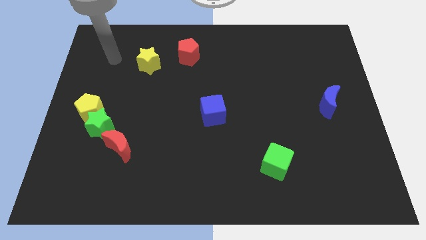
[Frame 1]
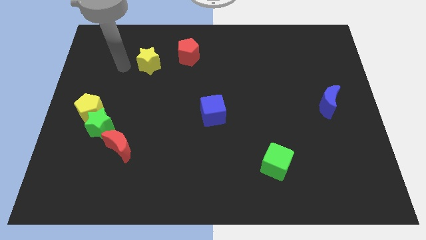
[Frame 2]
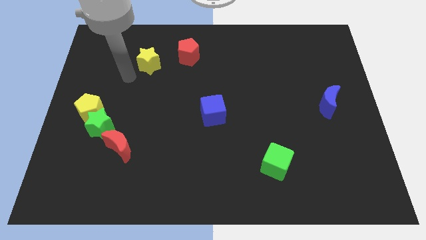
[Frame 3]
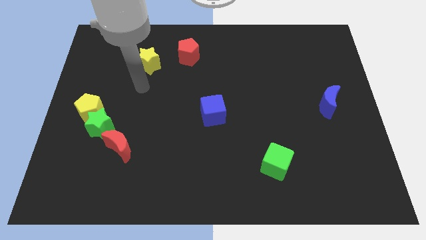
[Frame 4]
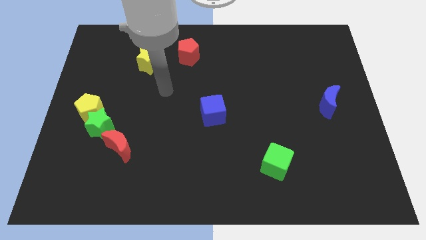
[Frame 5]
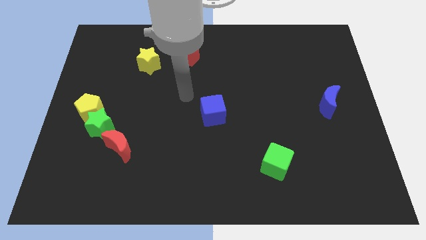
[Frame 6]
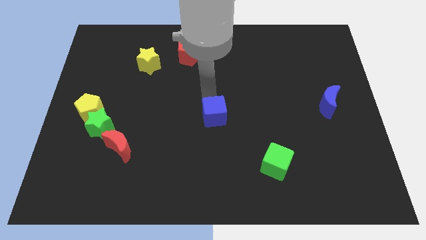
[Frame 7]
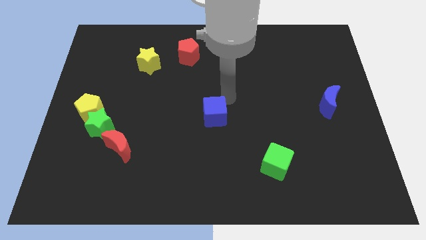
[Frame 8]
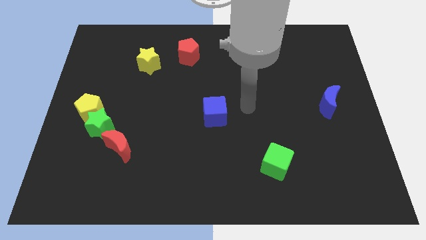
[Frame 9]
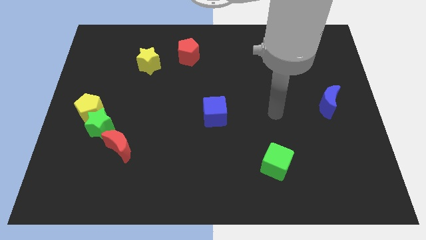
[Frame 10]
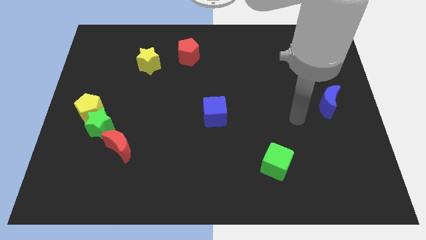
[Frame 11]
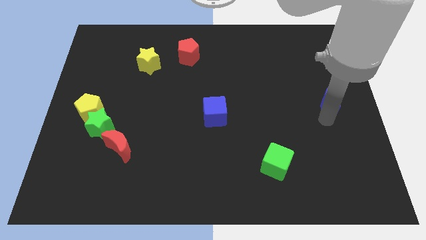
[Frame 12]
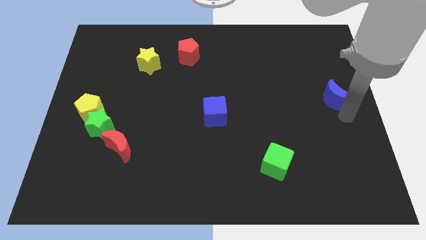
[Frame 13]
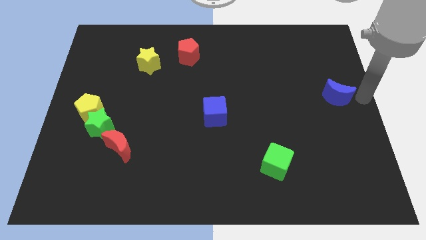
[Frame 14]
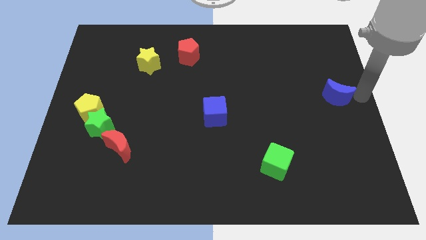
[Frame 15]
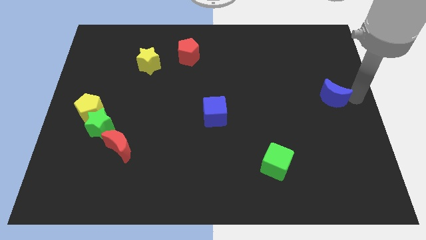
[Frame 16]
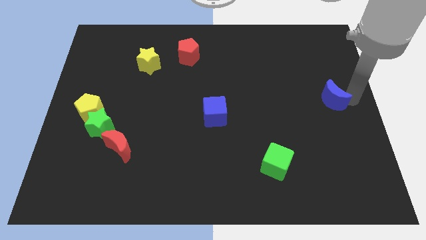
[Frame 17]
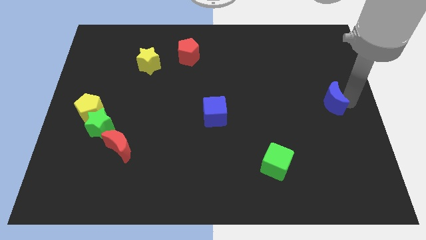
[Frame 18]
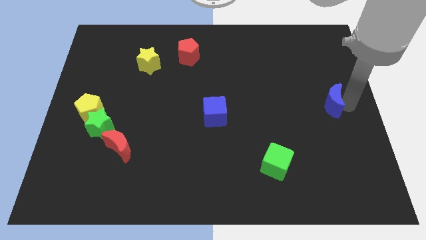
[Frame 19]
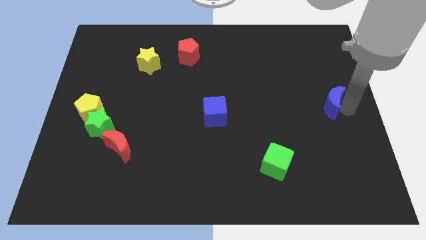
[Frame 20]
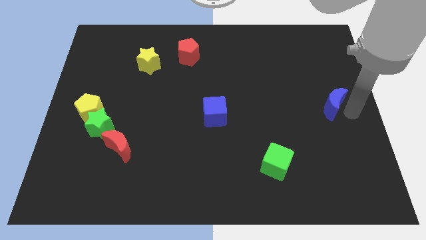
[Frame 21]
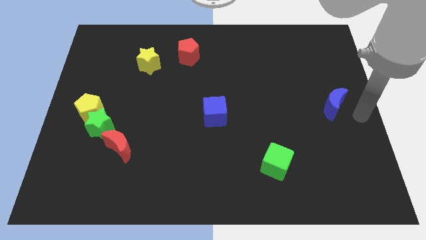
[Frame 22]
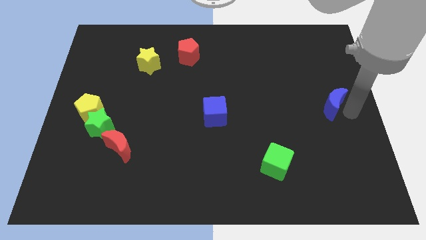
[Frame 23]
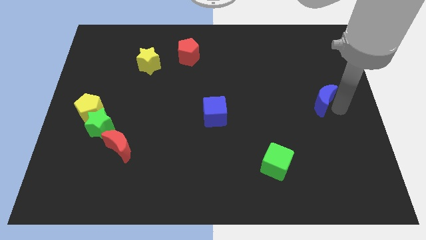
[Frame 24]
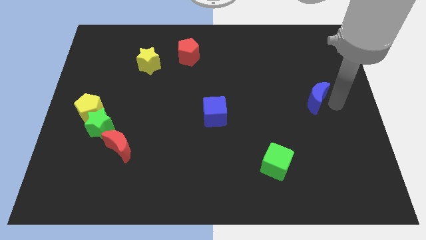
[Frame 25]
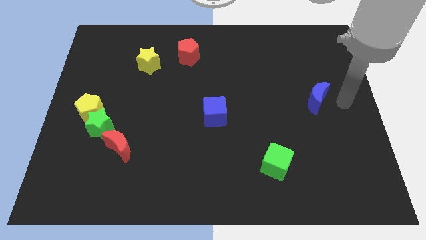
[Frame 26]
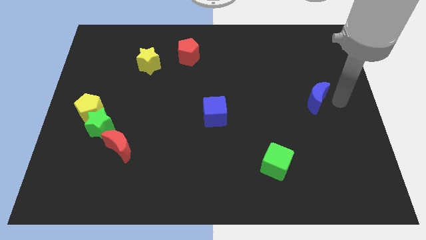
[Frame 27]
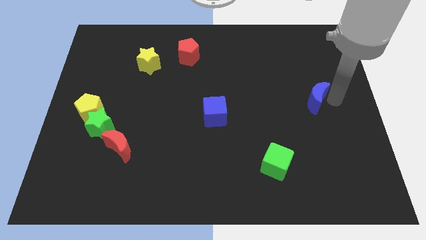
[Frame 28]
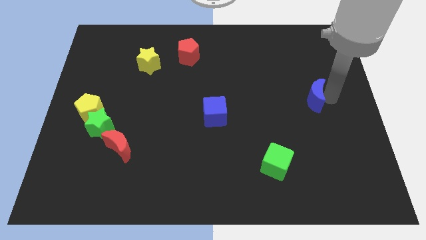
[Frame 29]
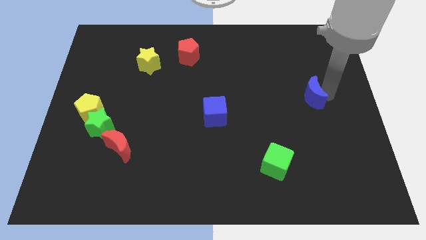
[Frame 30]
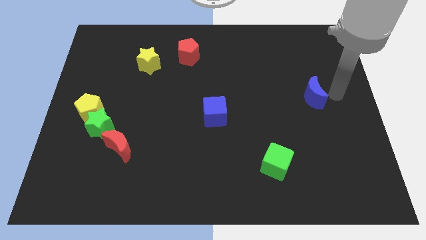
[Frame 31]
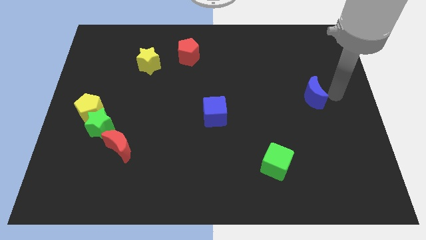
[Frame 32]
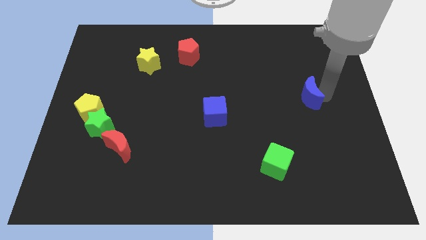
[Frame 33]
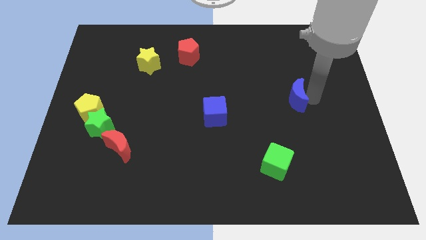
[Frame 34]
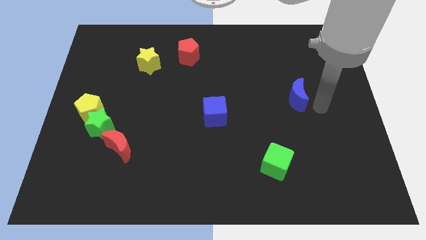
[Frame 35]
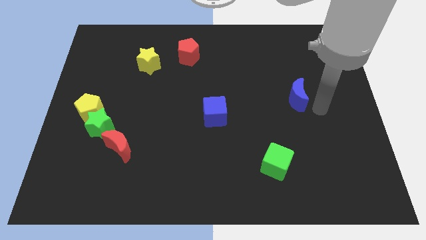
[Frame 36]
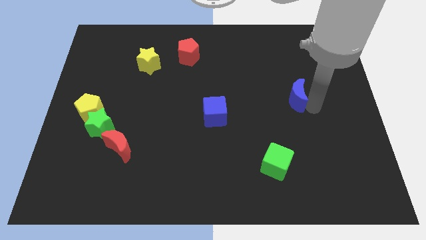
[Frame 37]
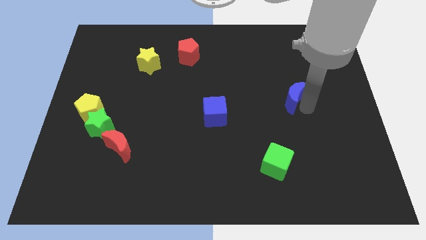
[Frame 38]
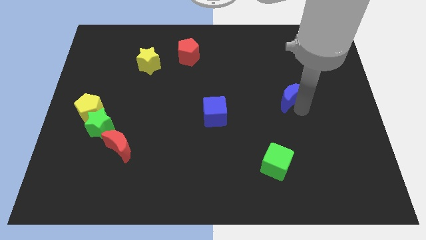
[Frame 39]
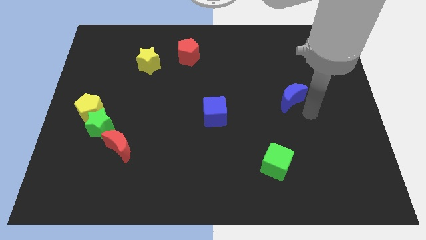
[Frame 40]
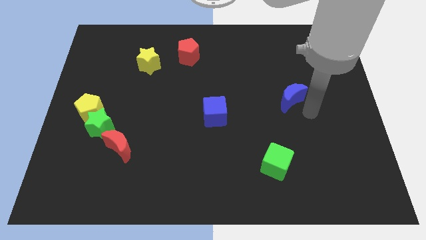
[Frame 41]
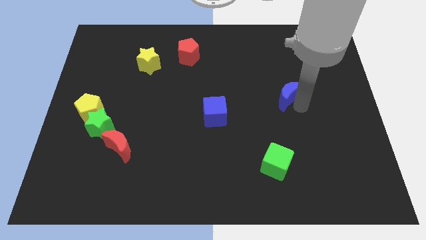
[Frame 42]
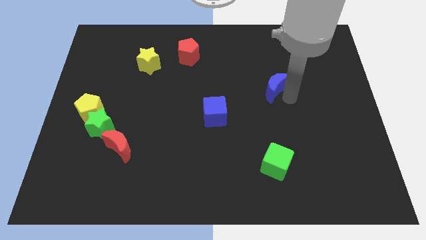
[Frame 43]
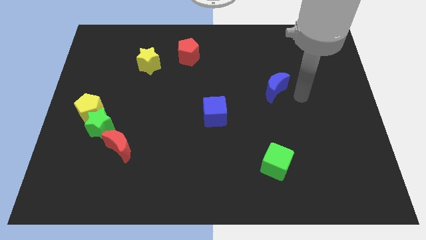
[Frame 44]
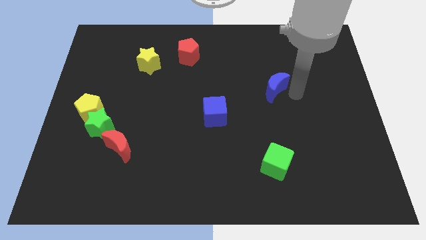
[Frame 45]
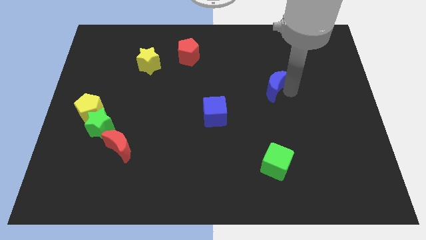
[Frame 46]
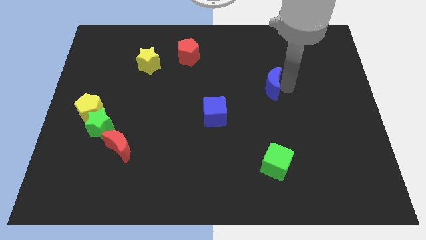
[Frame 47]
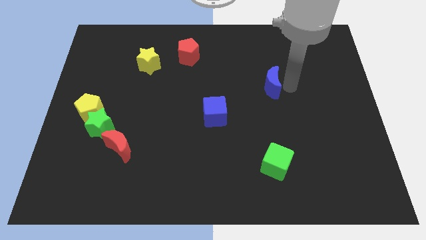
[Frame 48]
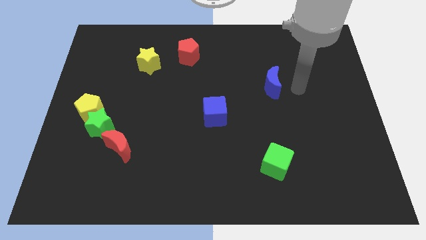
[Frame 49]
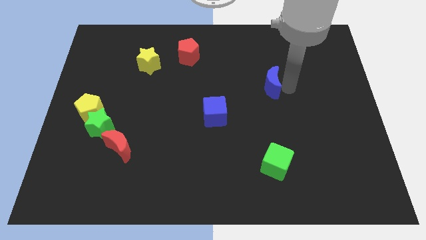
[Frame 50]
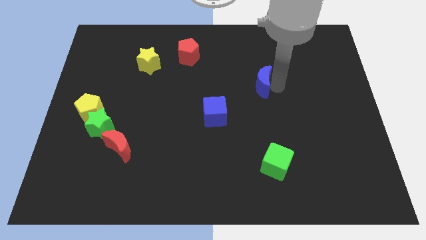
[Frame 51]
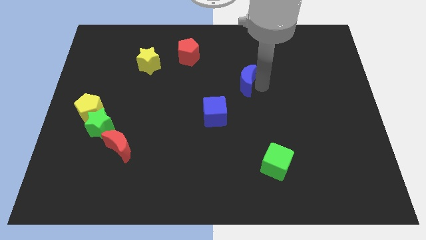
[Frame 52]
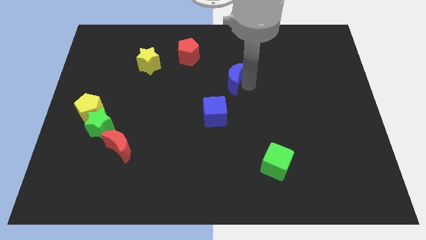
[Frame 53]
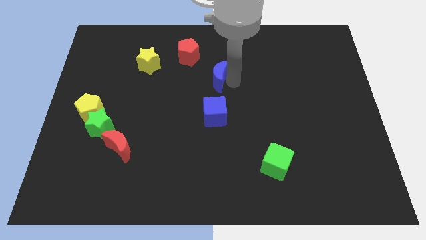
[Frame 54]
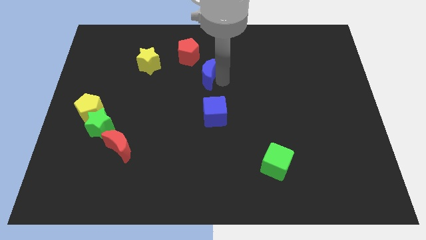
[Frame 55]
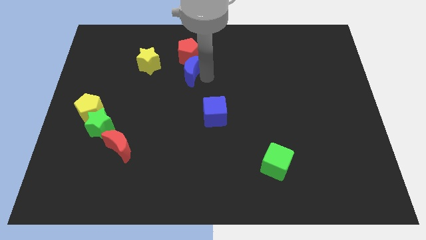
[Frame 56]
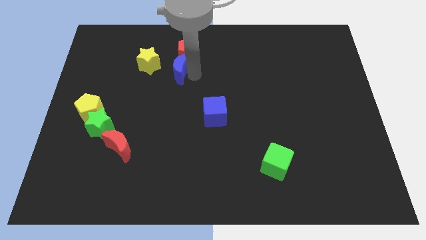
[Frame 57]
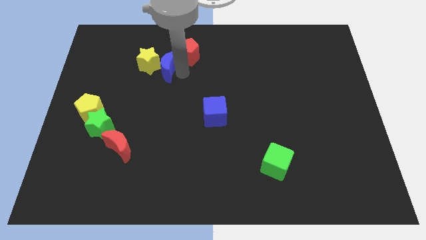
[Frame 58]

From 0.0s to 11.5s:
move the blue moon towards the yellow star

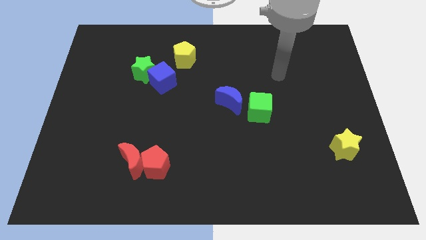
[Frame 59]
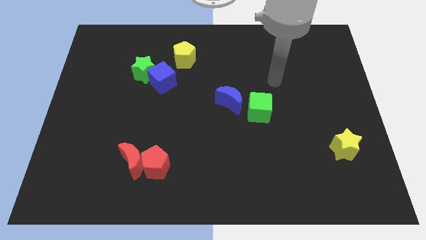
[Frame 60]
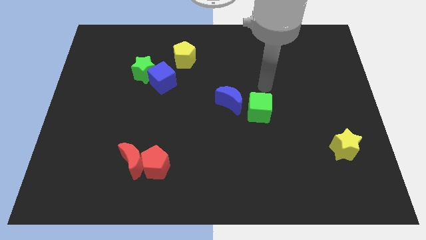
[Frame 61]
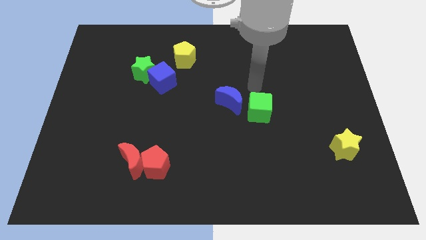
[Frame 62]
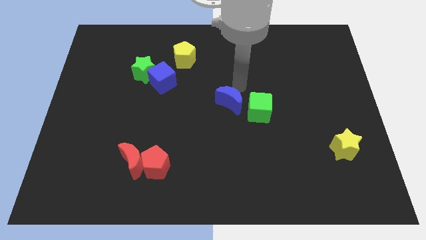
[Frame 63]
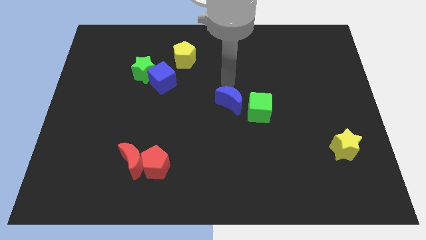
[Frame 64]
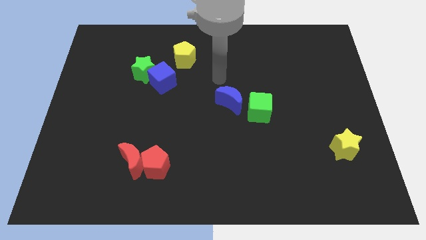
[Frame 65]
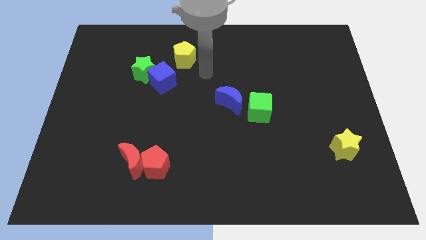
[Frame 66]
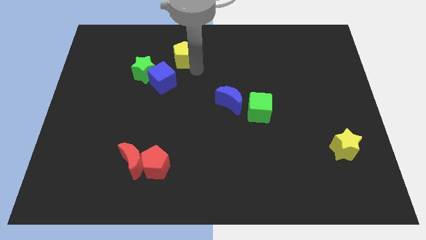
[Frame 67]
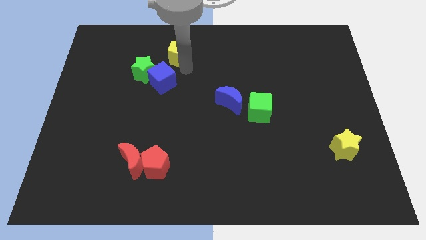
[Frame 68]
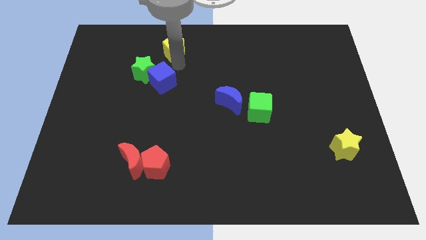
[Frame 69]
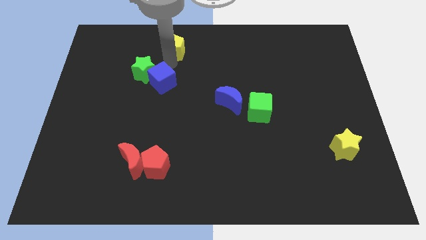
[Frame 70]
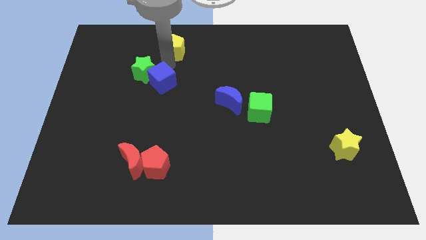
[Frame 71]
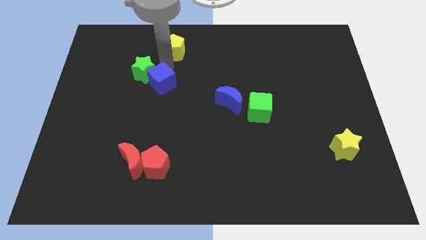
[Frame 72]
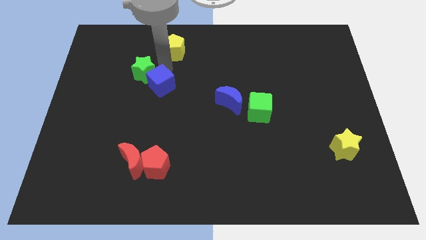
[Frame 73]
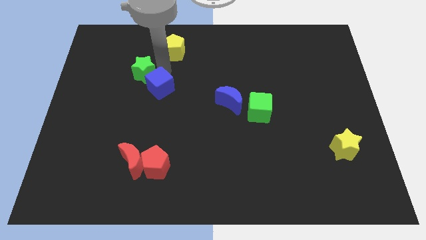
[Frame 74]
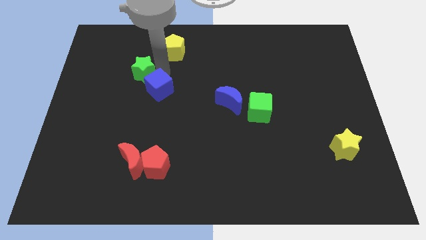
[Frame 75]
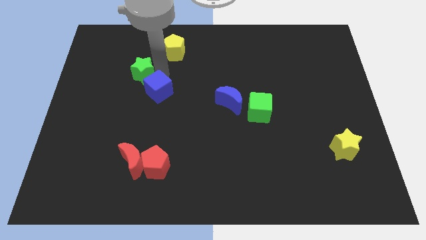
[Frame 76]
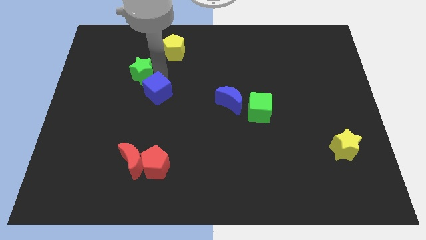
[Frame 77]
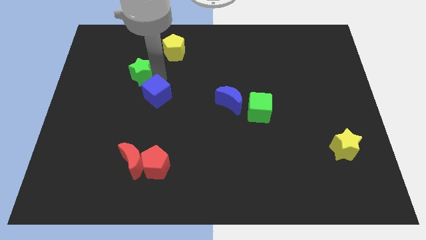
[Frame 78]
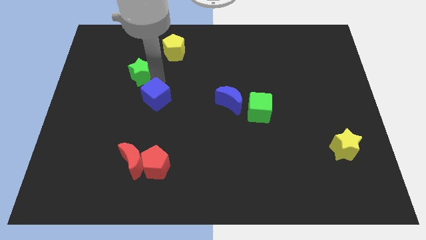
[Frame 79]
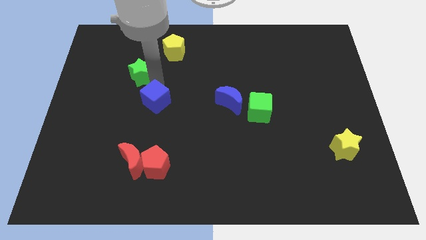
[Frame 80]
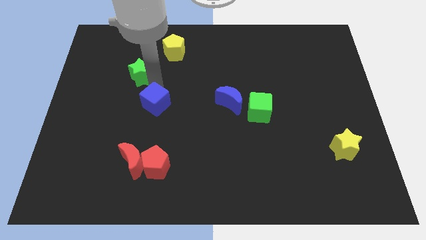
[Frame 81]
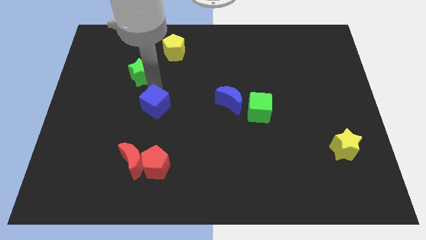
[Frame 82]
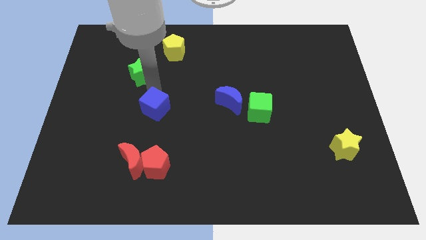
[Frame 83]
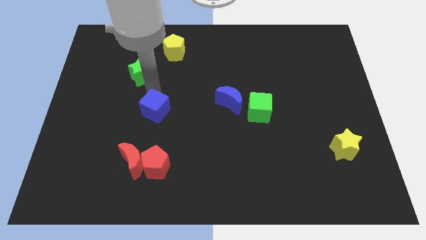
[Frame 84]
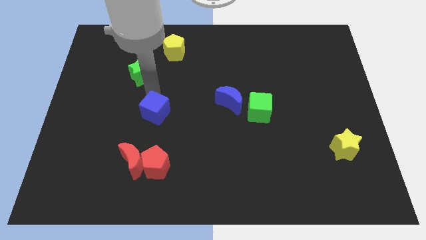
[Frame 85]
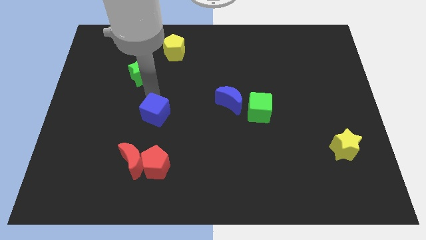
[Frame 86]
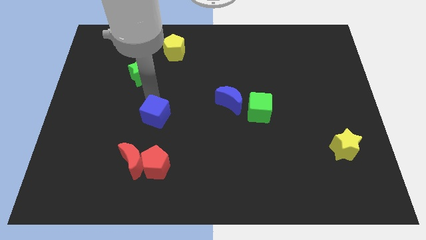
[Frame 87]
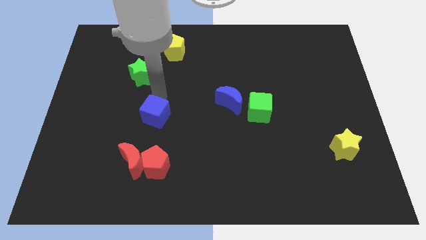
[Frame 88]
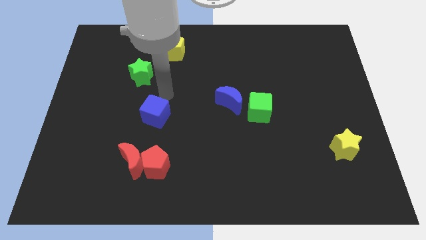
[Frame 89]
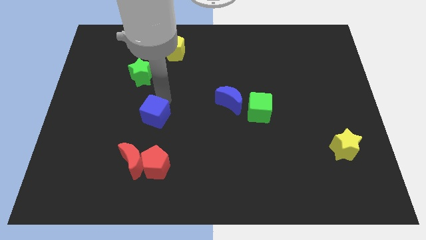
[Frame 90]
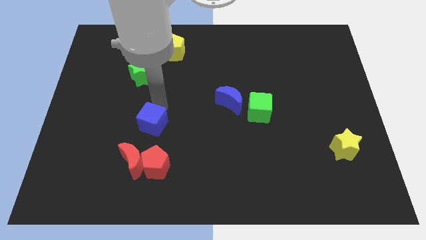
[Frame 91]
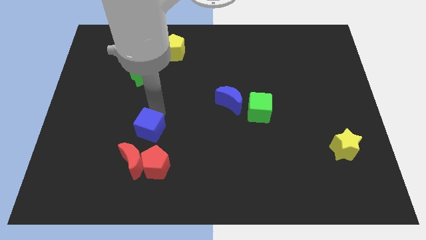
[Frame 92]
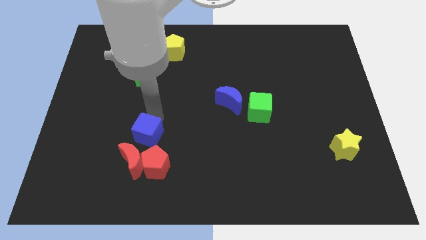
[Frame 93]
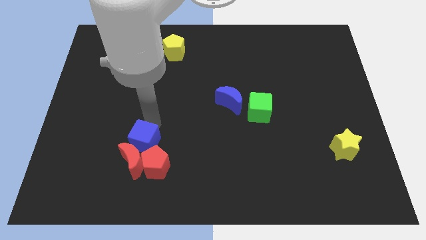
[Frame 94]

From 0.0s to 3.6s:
push the blue cube close to the red moon
